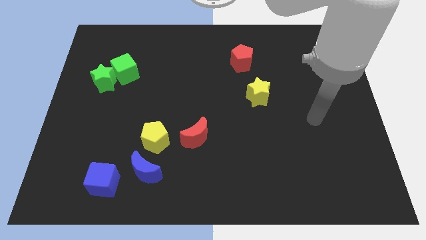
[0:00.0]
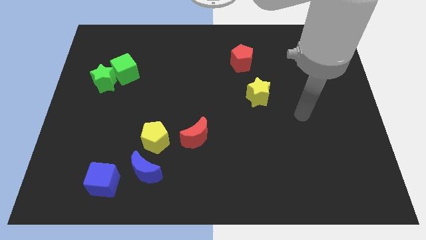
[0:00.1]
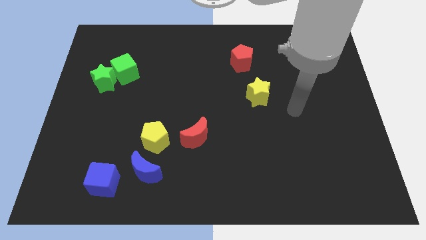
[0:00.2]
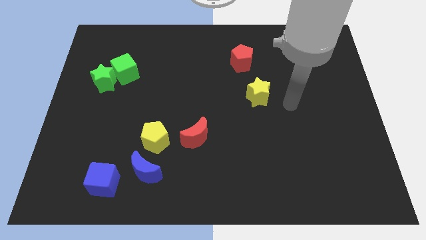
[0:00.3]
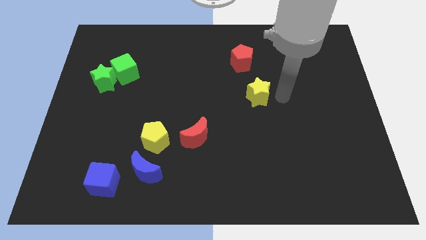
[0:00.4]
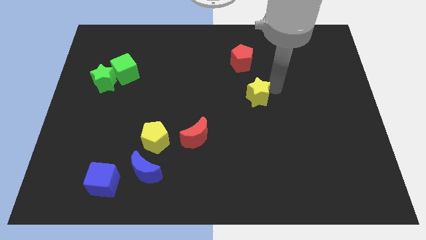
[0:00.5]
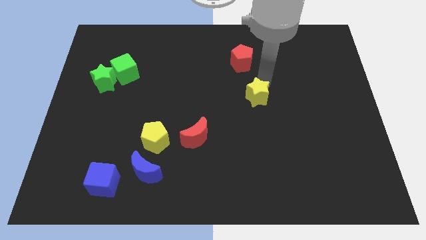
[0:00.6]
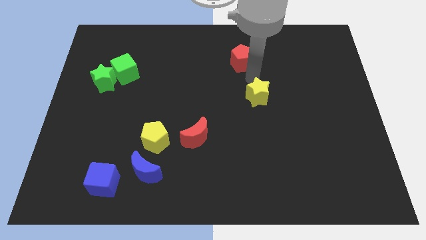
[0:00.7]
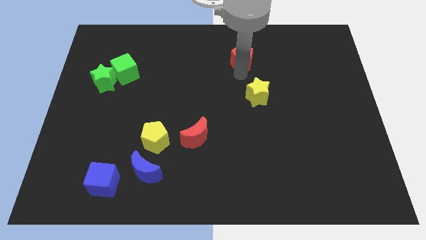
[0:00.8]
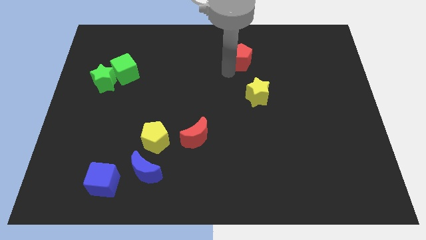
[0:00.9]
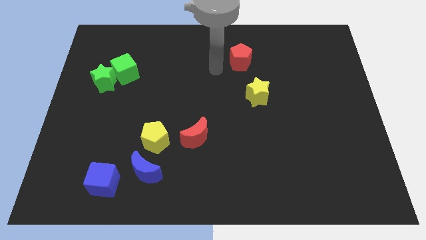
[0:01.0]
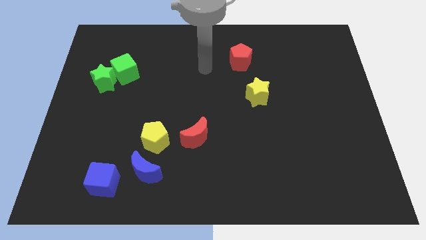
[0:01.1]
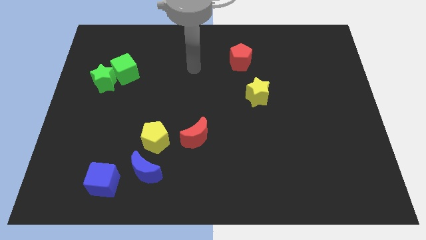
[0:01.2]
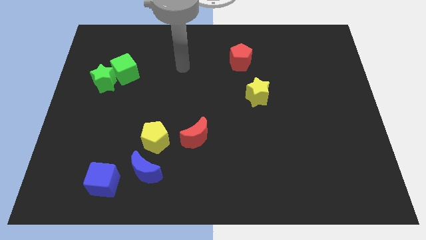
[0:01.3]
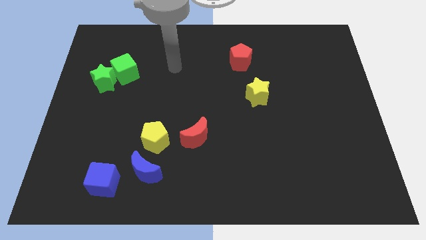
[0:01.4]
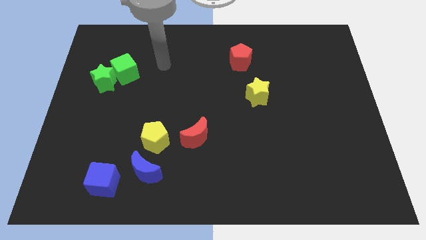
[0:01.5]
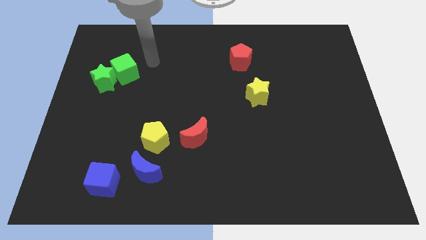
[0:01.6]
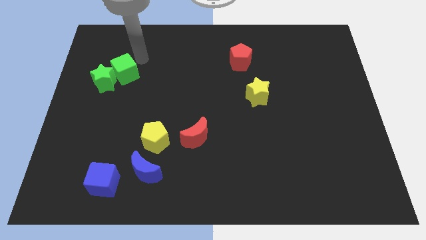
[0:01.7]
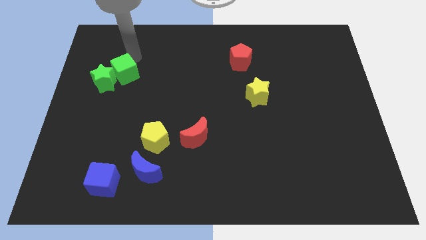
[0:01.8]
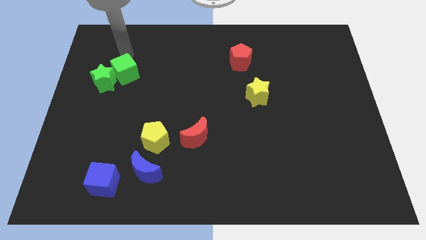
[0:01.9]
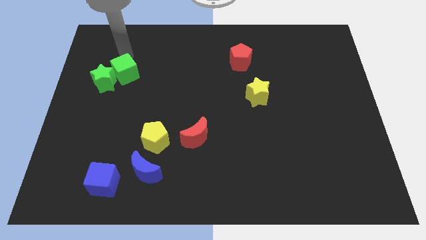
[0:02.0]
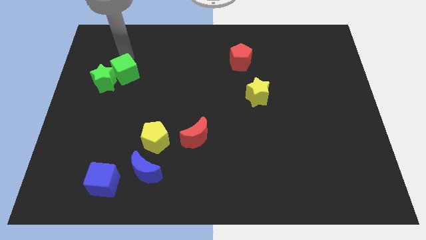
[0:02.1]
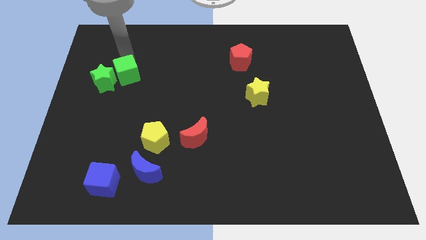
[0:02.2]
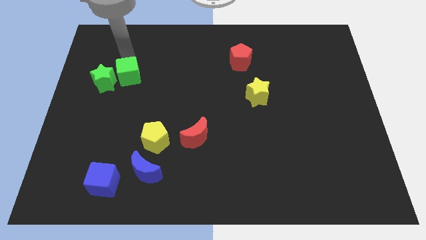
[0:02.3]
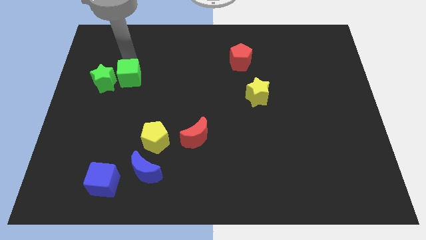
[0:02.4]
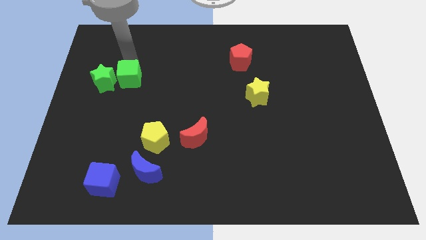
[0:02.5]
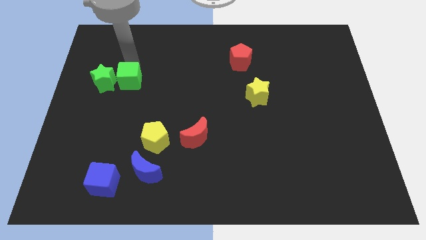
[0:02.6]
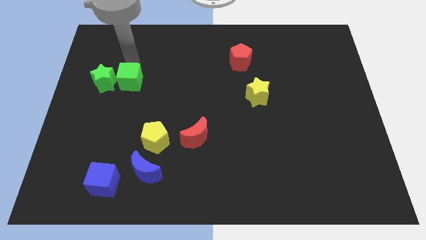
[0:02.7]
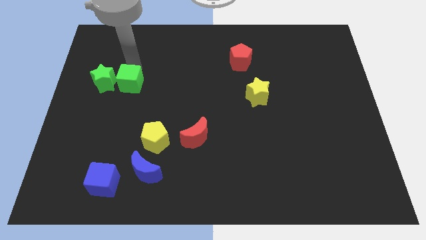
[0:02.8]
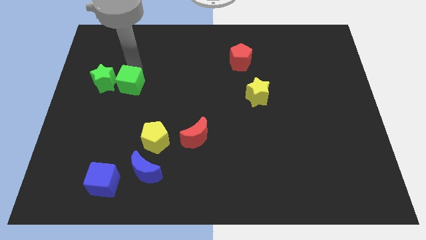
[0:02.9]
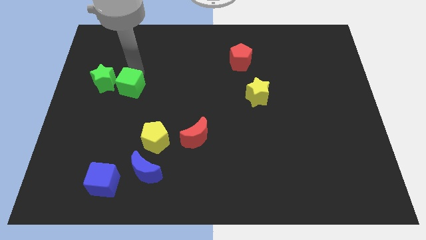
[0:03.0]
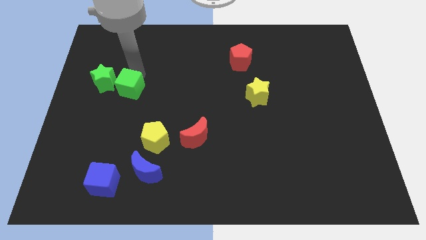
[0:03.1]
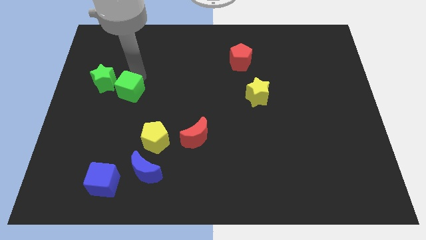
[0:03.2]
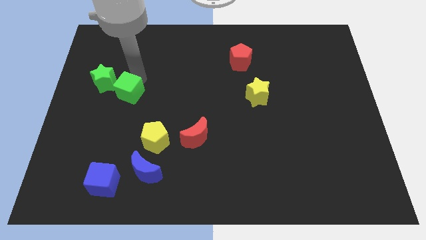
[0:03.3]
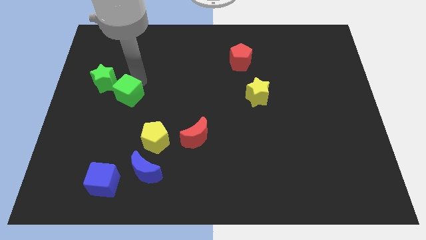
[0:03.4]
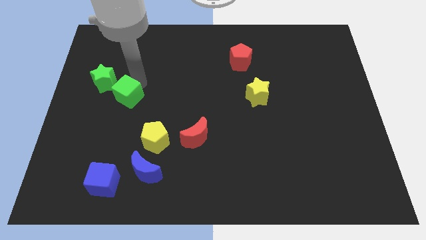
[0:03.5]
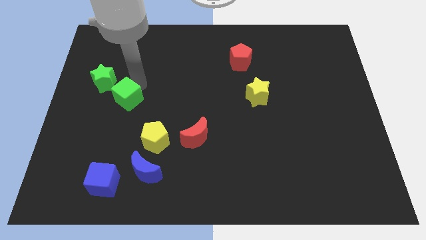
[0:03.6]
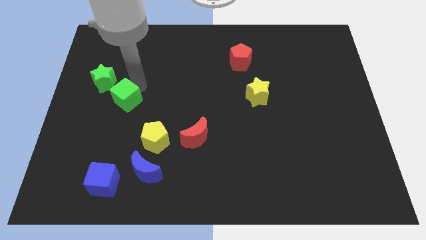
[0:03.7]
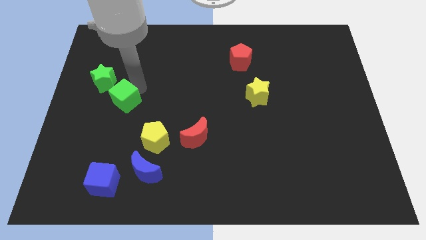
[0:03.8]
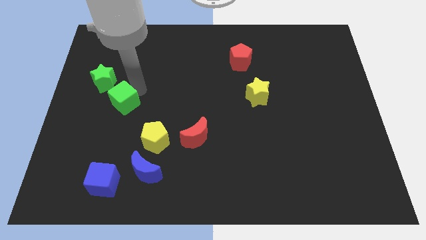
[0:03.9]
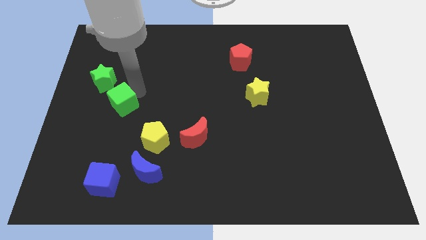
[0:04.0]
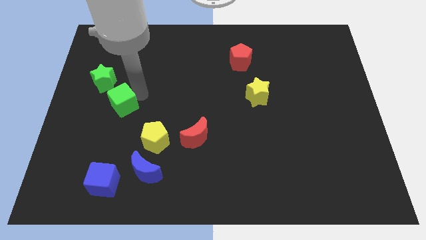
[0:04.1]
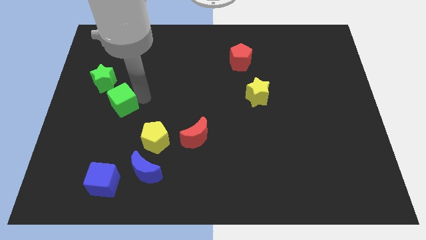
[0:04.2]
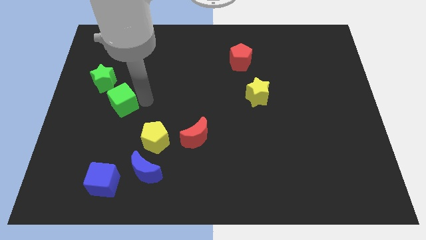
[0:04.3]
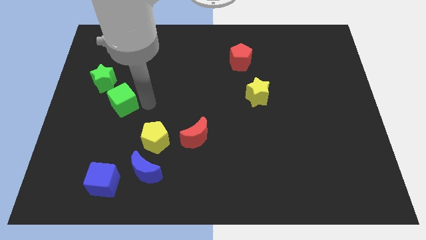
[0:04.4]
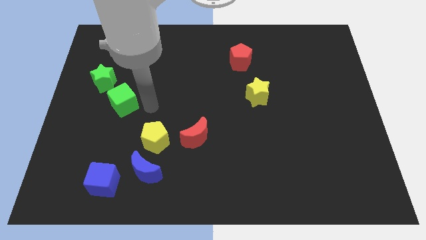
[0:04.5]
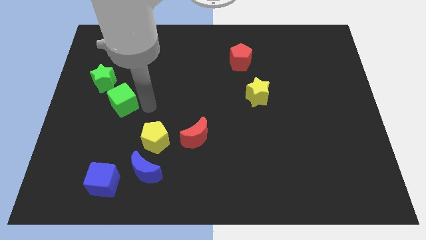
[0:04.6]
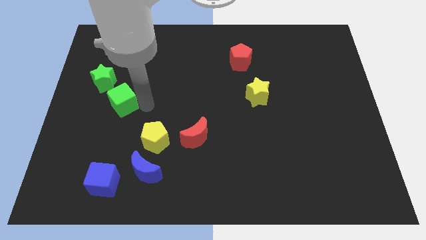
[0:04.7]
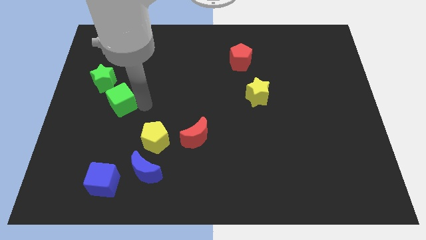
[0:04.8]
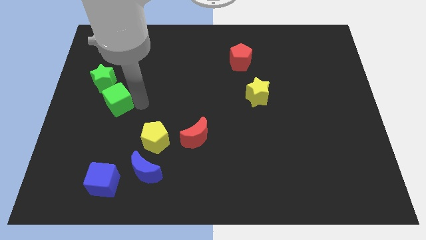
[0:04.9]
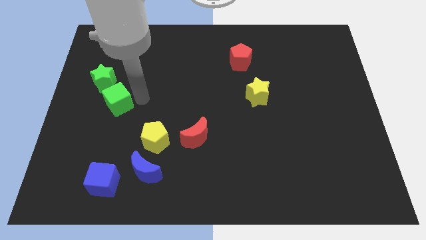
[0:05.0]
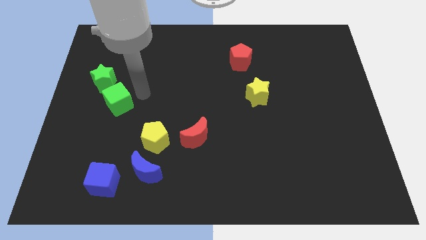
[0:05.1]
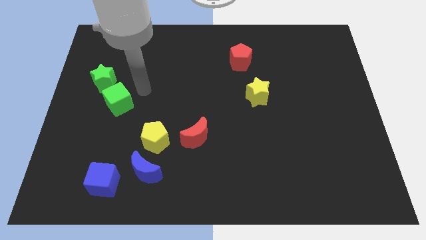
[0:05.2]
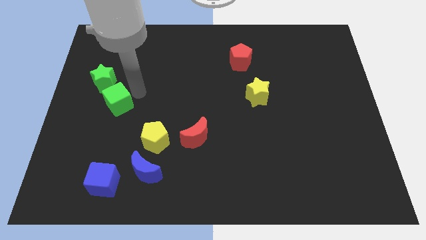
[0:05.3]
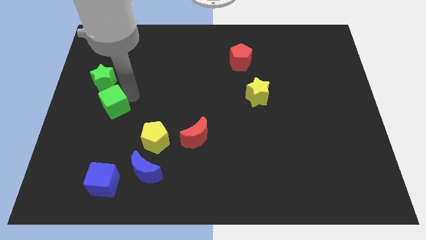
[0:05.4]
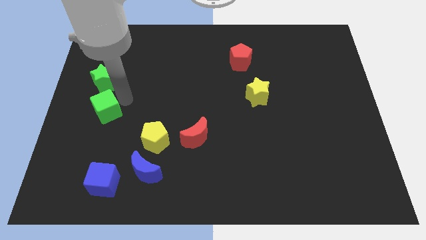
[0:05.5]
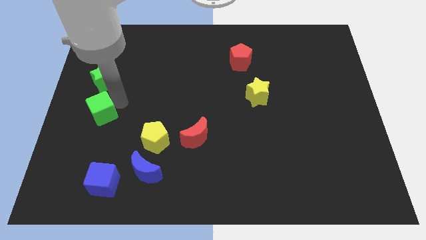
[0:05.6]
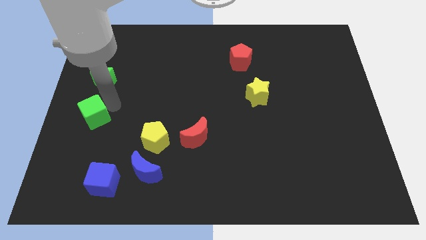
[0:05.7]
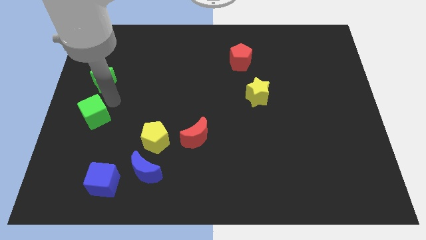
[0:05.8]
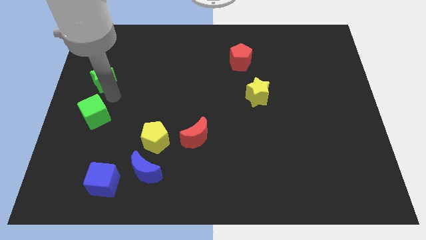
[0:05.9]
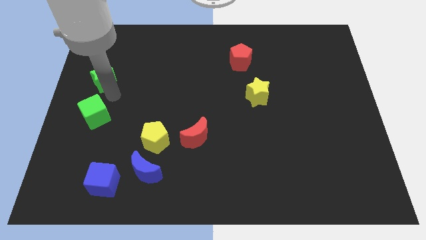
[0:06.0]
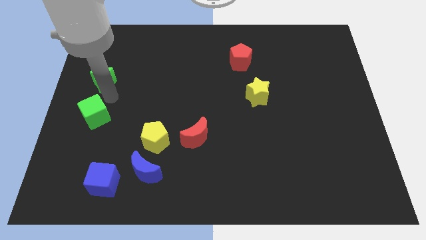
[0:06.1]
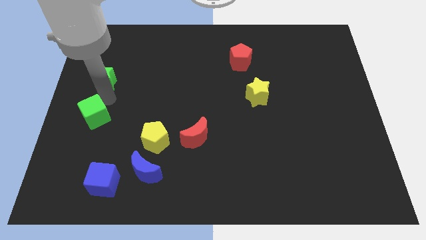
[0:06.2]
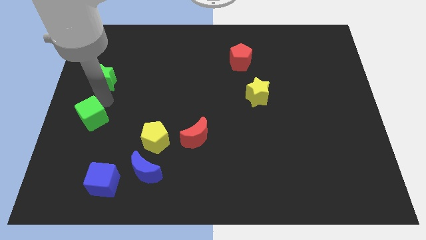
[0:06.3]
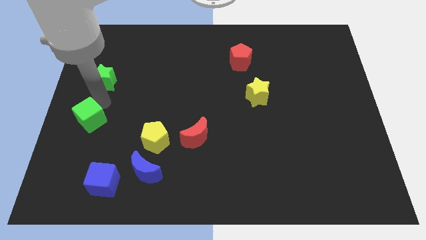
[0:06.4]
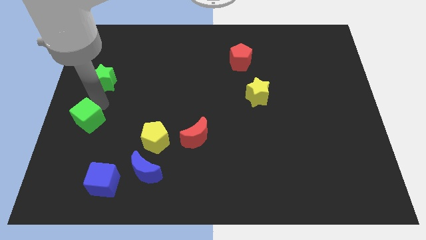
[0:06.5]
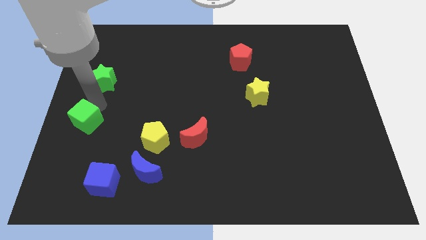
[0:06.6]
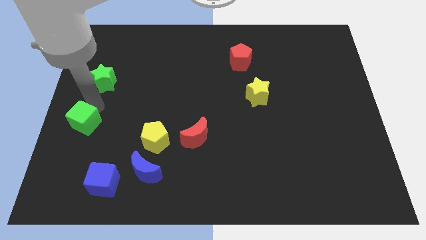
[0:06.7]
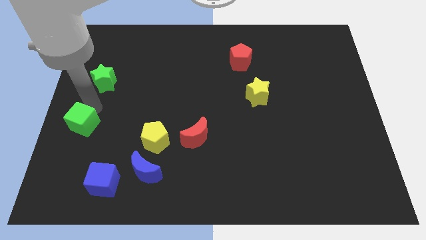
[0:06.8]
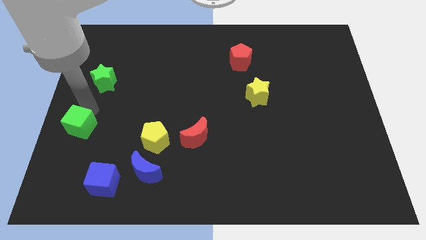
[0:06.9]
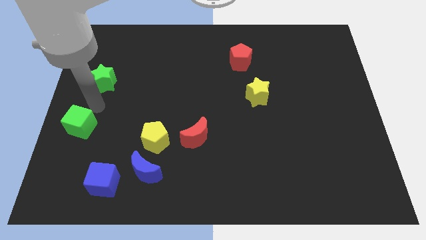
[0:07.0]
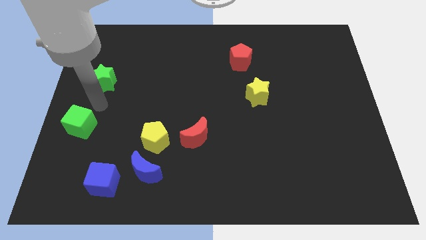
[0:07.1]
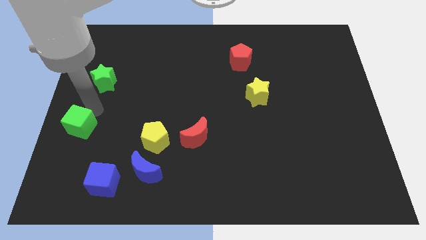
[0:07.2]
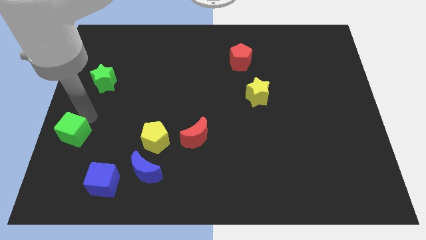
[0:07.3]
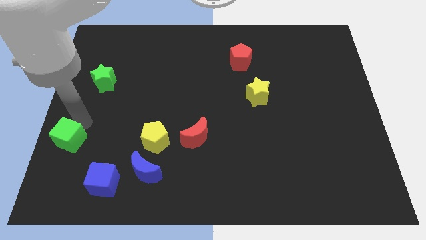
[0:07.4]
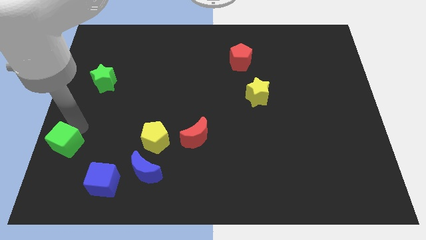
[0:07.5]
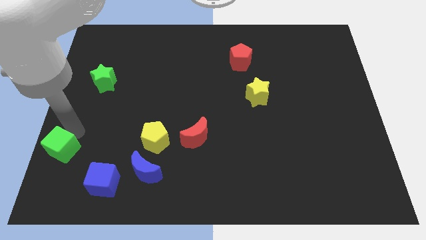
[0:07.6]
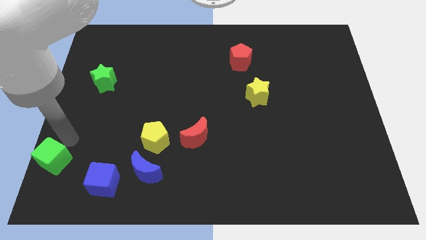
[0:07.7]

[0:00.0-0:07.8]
put the green cube to the bottom left
